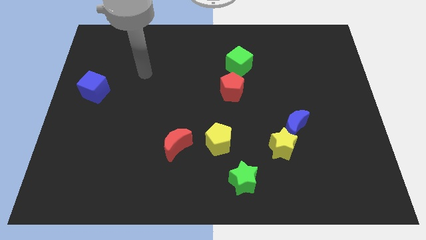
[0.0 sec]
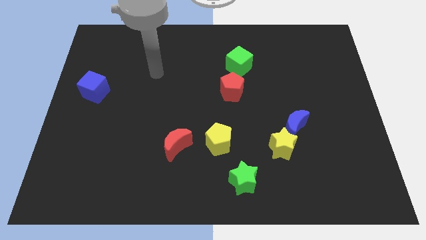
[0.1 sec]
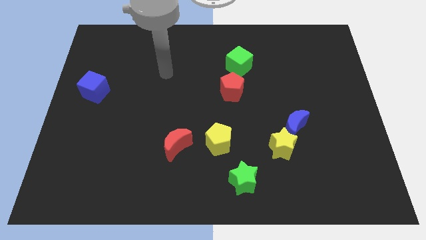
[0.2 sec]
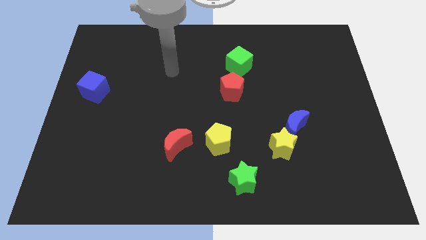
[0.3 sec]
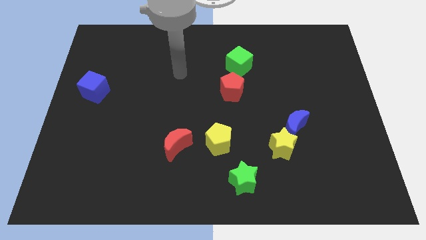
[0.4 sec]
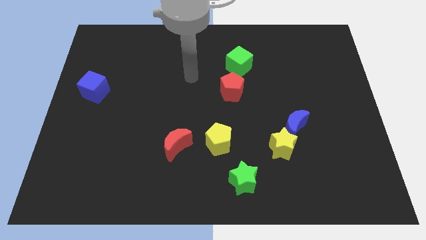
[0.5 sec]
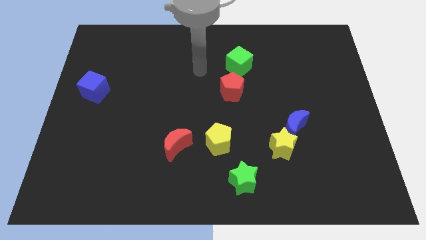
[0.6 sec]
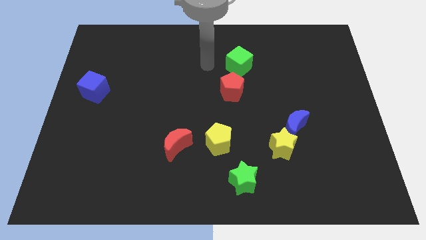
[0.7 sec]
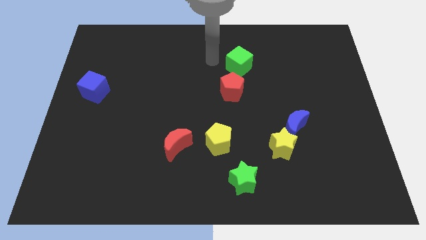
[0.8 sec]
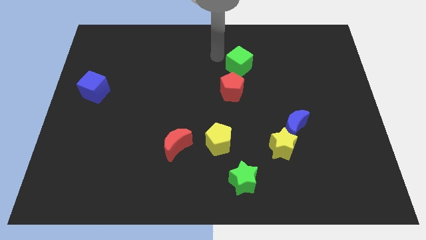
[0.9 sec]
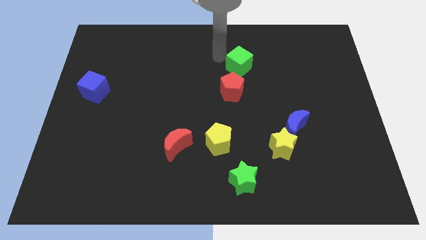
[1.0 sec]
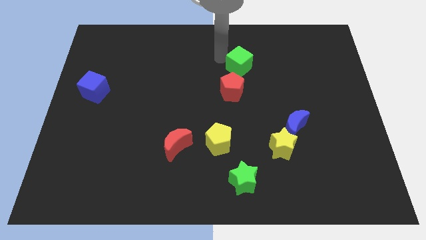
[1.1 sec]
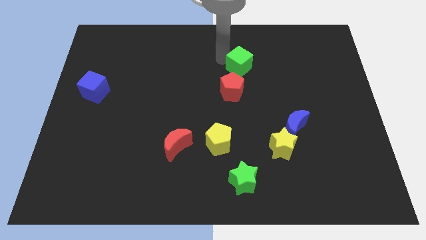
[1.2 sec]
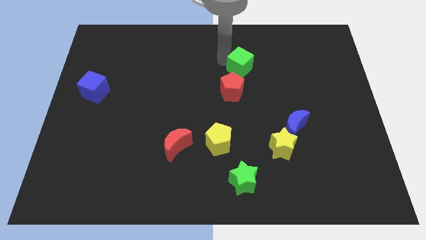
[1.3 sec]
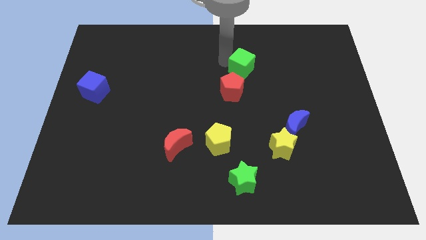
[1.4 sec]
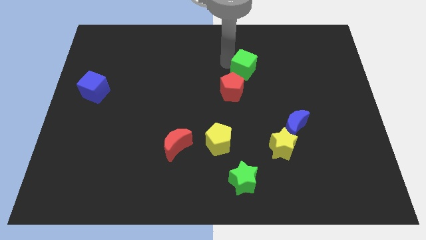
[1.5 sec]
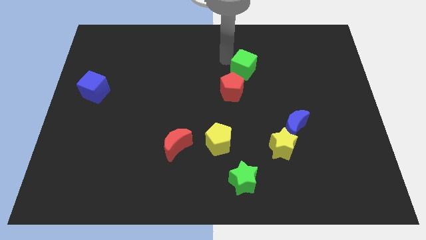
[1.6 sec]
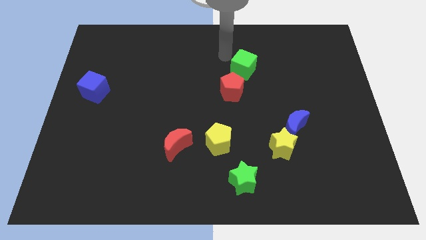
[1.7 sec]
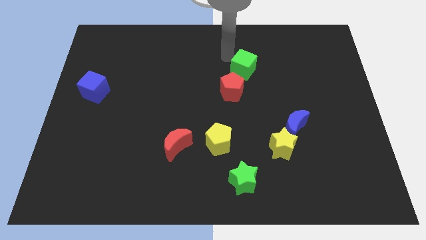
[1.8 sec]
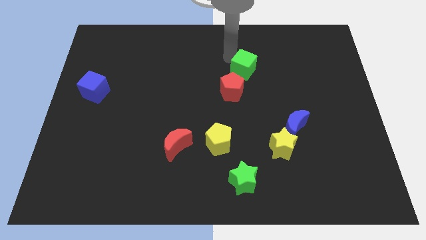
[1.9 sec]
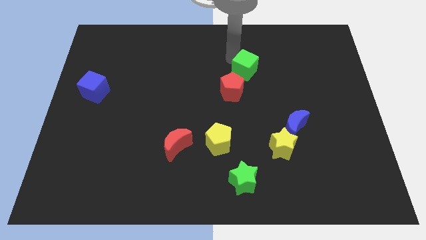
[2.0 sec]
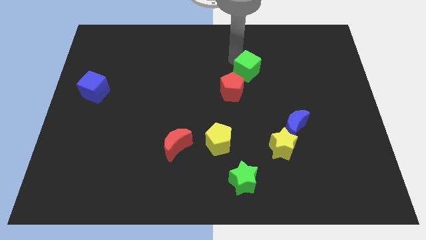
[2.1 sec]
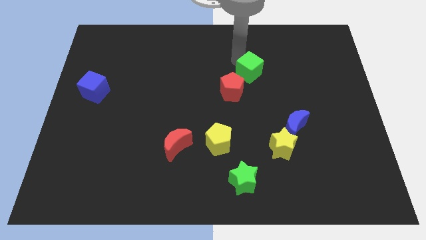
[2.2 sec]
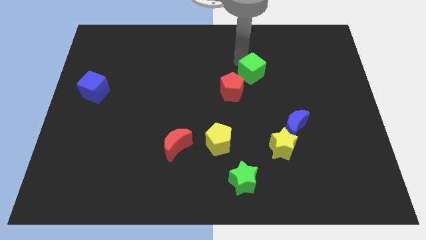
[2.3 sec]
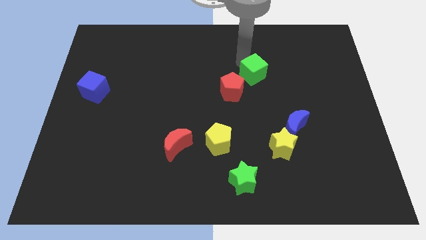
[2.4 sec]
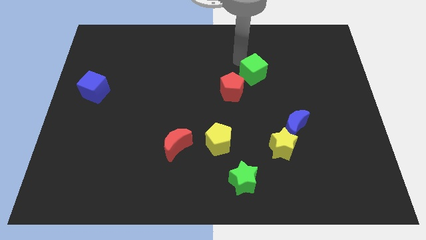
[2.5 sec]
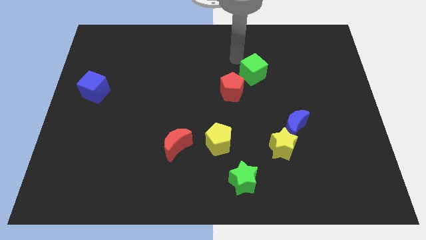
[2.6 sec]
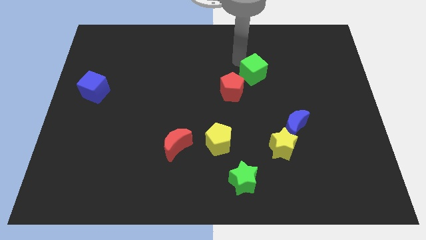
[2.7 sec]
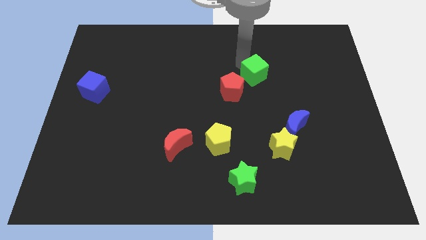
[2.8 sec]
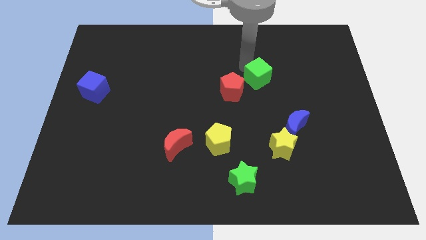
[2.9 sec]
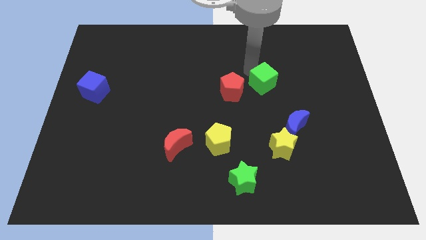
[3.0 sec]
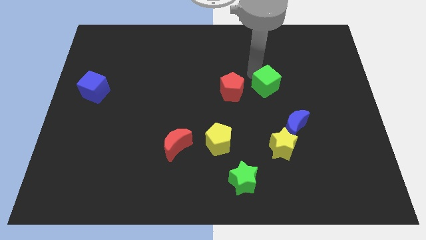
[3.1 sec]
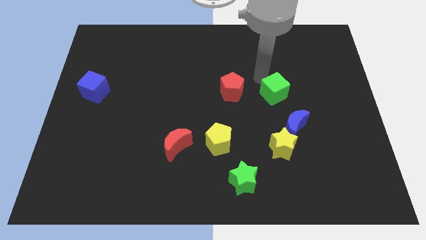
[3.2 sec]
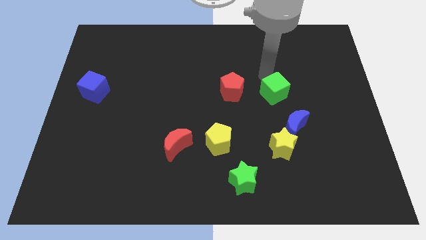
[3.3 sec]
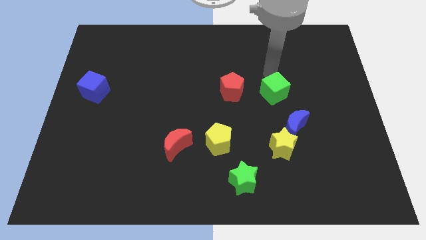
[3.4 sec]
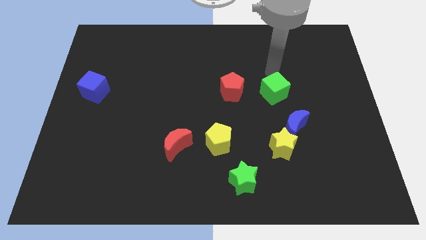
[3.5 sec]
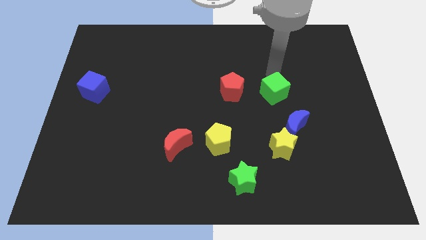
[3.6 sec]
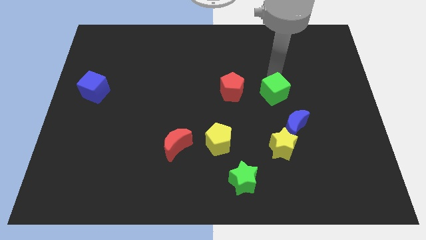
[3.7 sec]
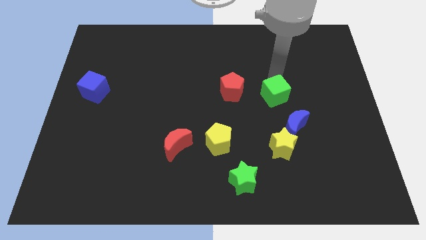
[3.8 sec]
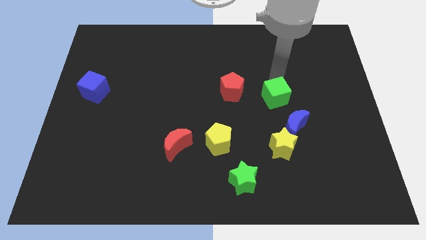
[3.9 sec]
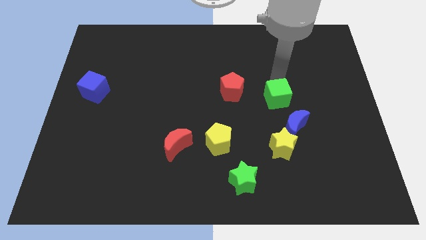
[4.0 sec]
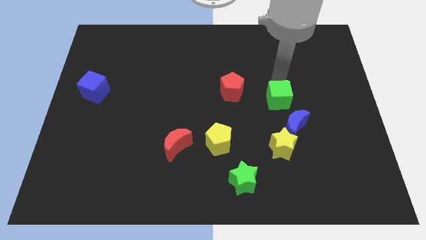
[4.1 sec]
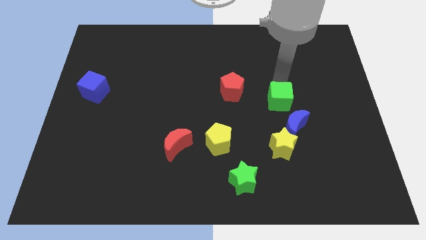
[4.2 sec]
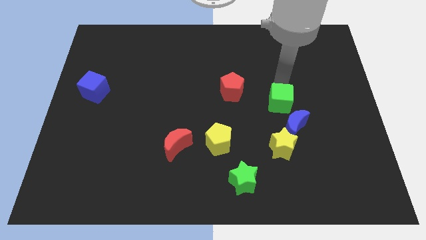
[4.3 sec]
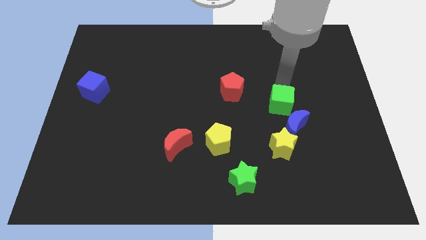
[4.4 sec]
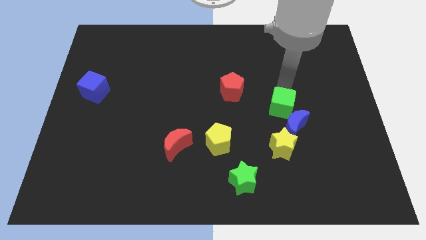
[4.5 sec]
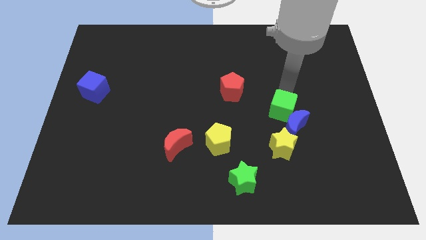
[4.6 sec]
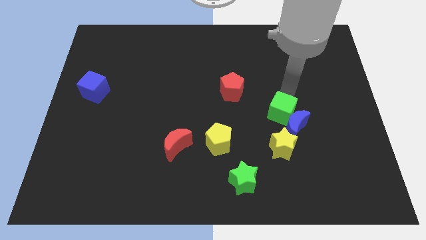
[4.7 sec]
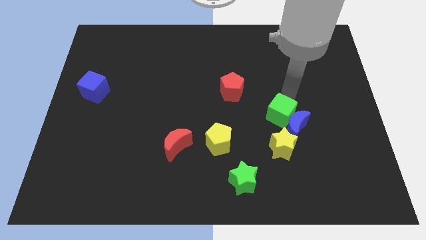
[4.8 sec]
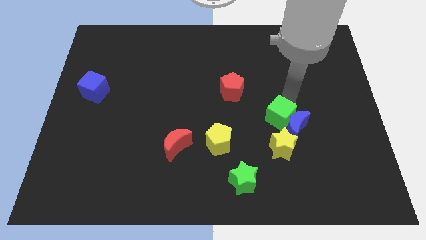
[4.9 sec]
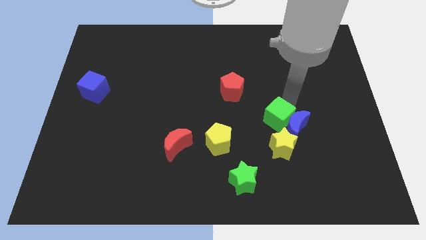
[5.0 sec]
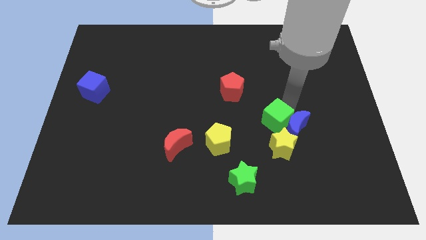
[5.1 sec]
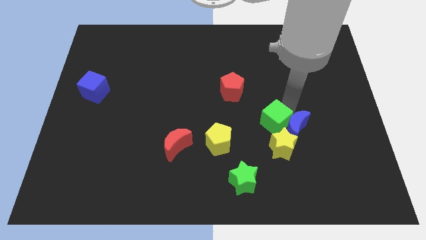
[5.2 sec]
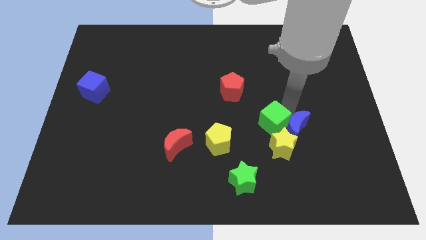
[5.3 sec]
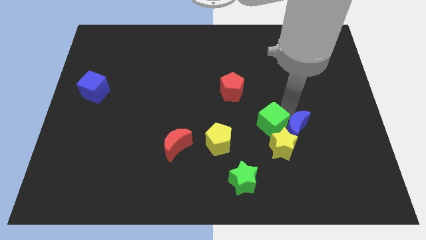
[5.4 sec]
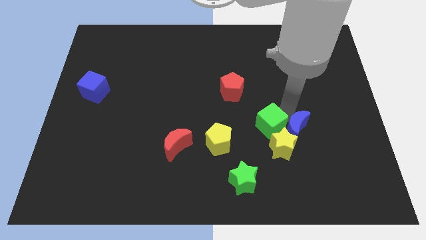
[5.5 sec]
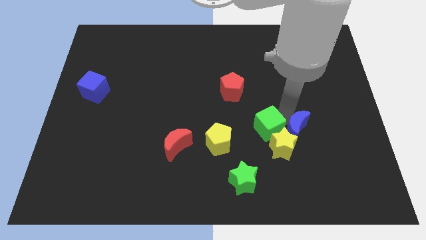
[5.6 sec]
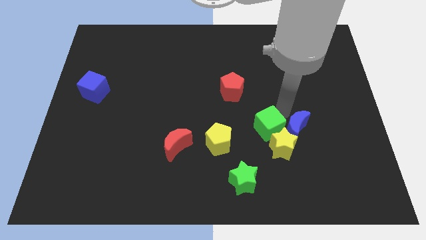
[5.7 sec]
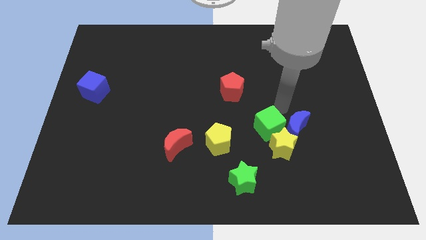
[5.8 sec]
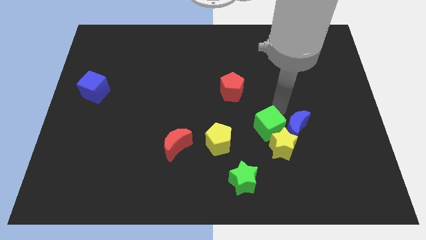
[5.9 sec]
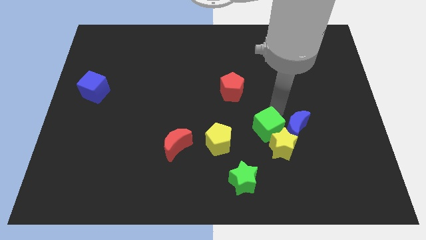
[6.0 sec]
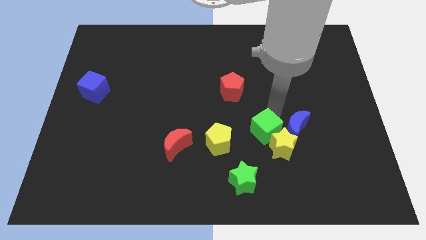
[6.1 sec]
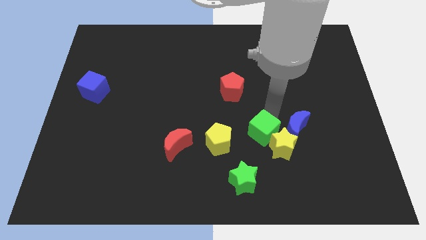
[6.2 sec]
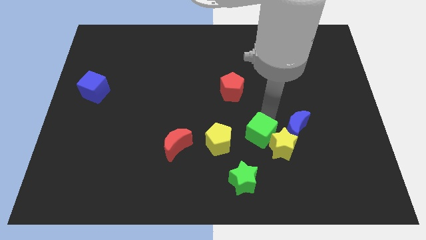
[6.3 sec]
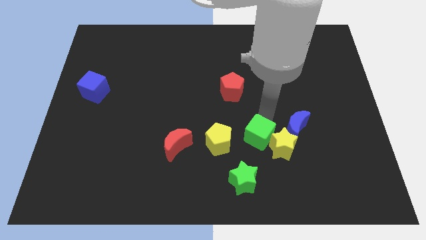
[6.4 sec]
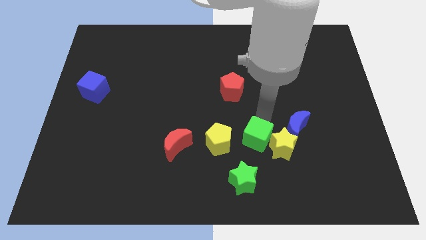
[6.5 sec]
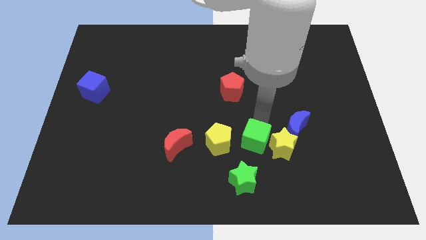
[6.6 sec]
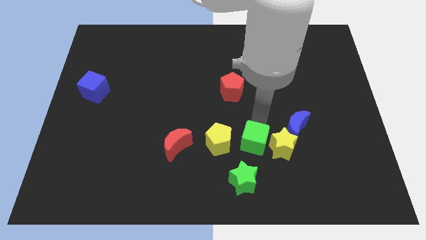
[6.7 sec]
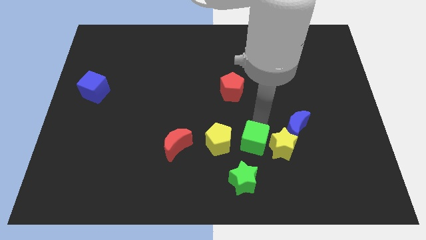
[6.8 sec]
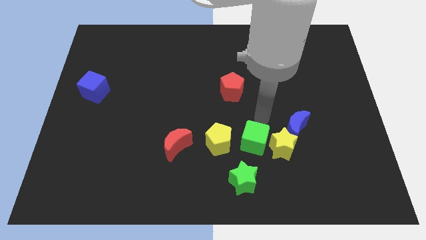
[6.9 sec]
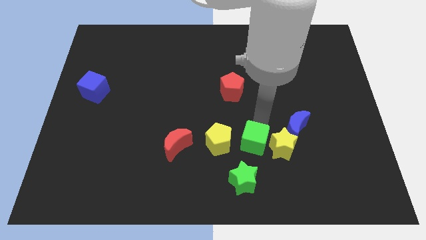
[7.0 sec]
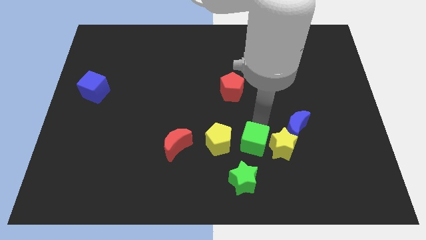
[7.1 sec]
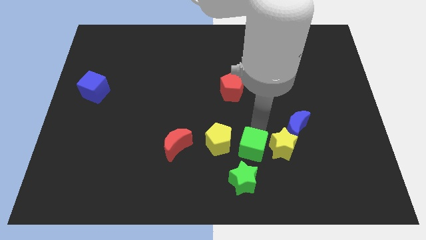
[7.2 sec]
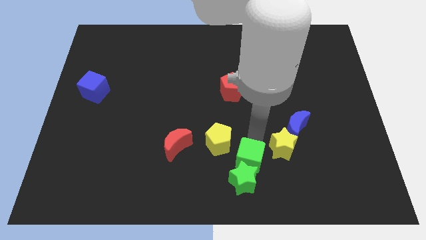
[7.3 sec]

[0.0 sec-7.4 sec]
push the green cube close to the green star
